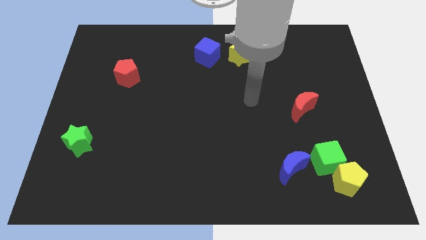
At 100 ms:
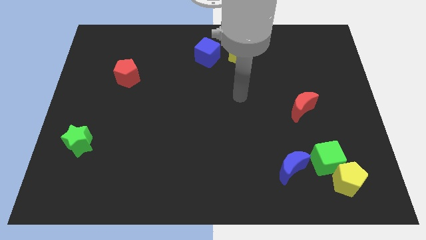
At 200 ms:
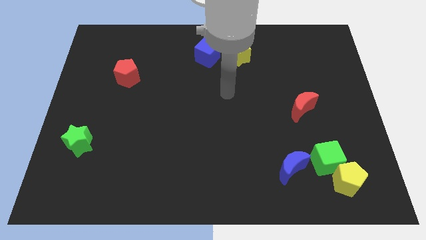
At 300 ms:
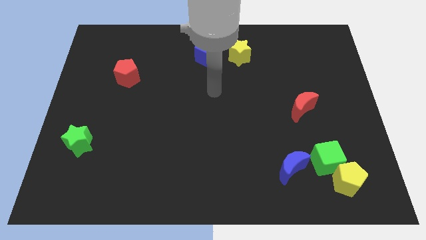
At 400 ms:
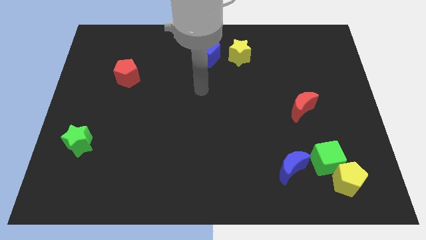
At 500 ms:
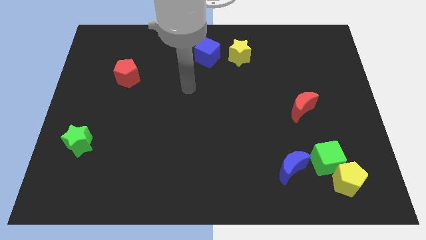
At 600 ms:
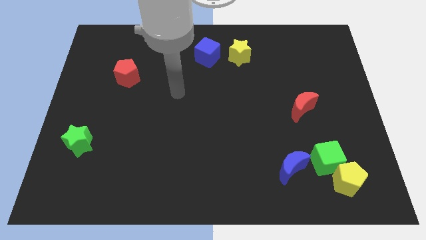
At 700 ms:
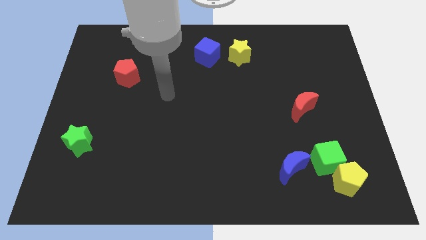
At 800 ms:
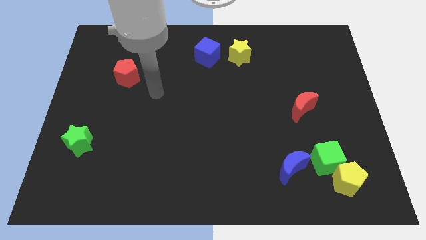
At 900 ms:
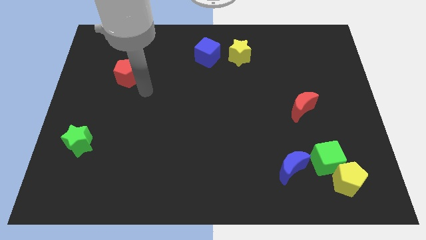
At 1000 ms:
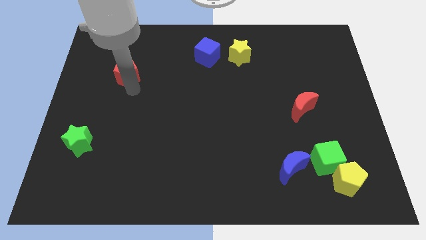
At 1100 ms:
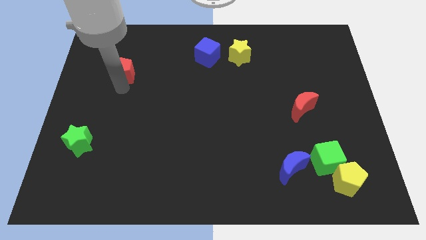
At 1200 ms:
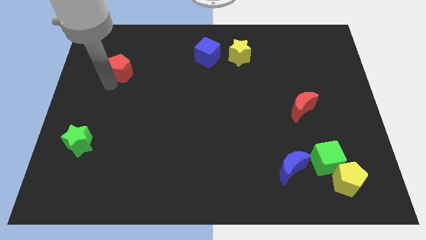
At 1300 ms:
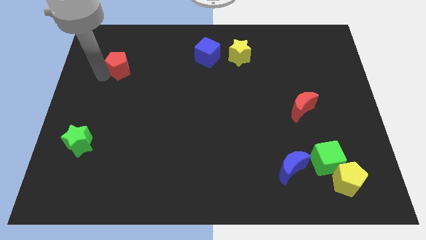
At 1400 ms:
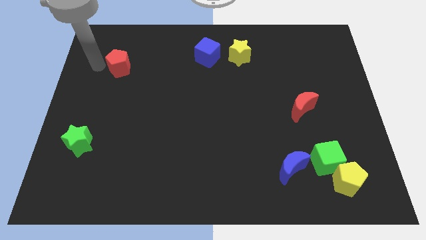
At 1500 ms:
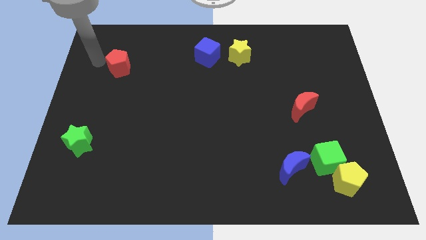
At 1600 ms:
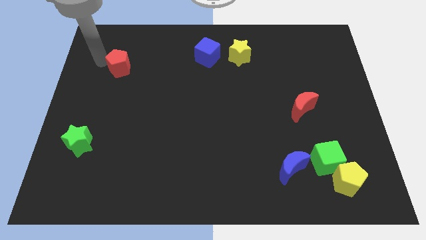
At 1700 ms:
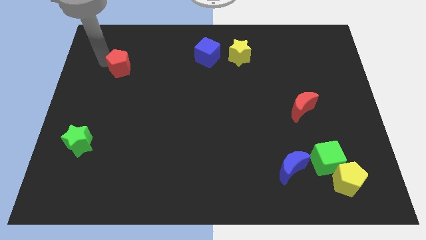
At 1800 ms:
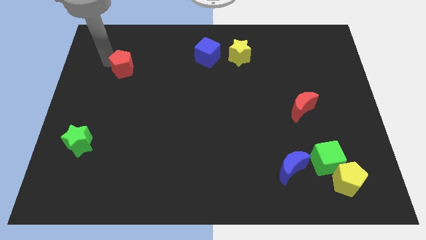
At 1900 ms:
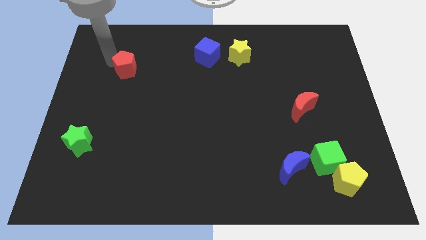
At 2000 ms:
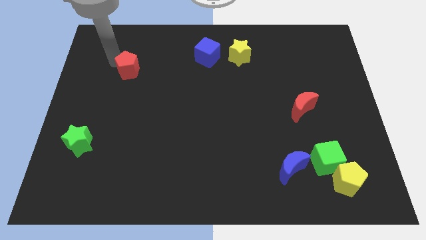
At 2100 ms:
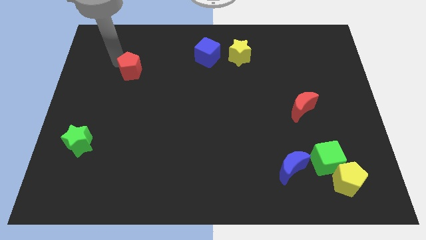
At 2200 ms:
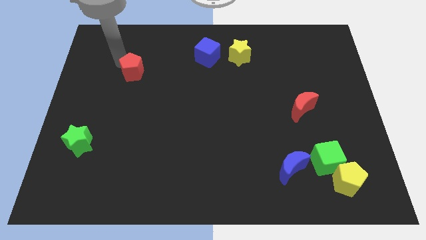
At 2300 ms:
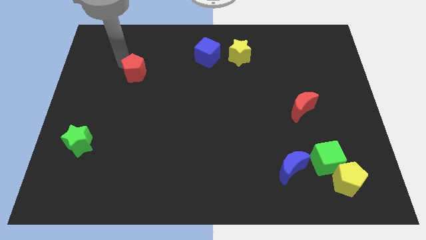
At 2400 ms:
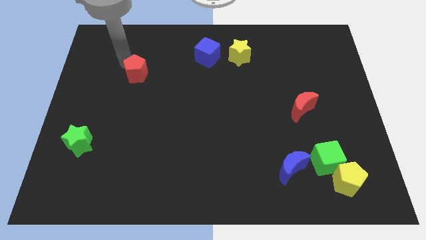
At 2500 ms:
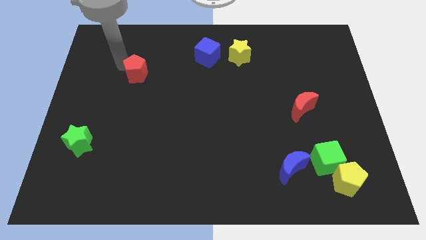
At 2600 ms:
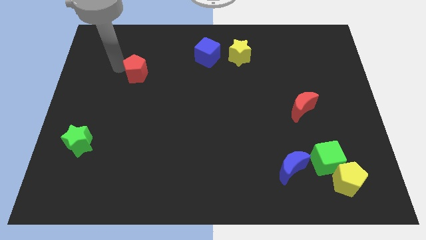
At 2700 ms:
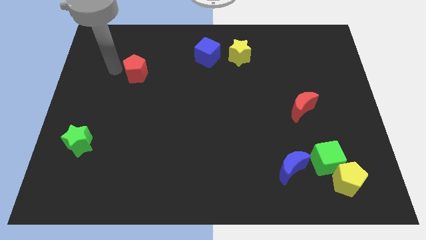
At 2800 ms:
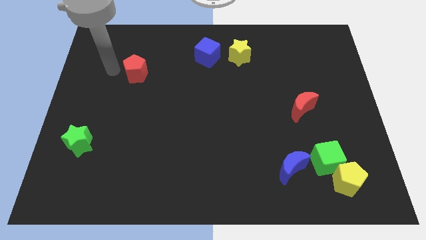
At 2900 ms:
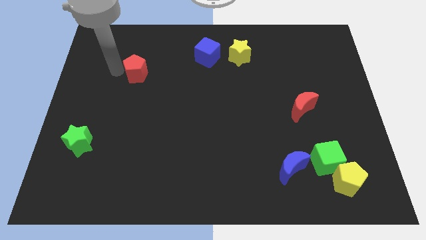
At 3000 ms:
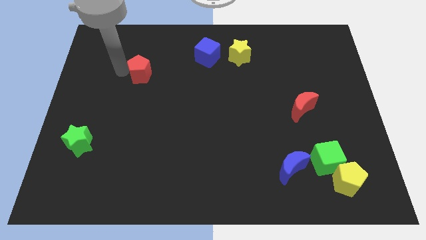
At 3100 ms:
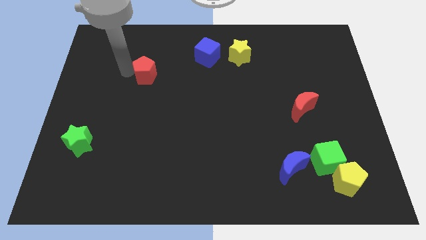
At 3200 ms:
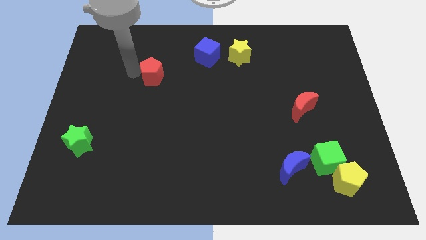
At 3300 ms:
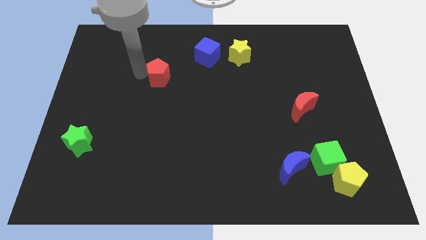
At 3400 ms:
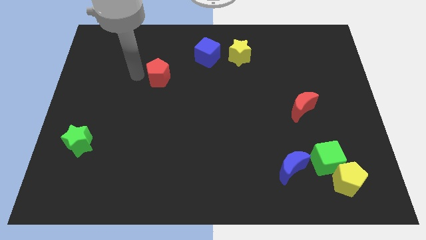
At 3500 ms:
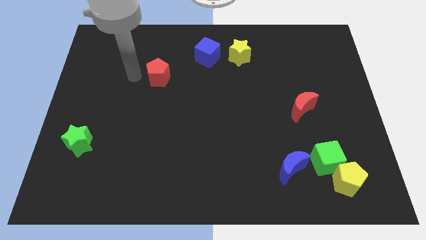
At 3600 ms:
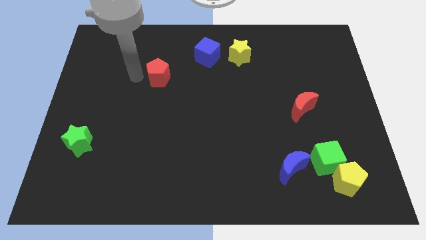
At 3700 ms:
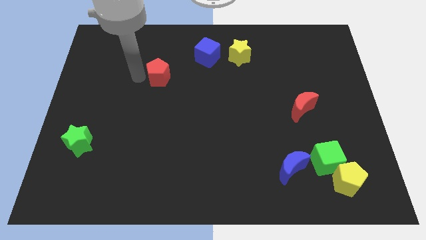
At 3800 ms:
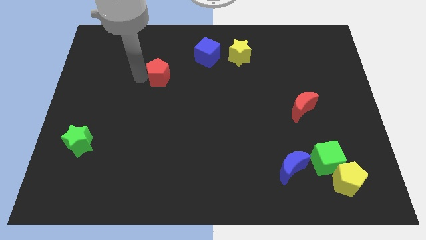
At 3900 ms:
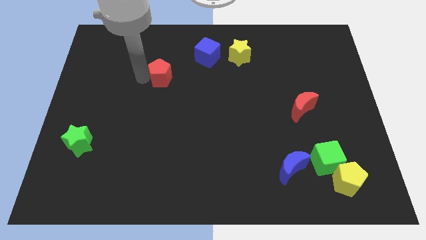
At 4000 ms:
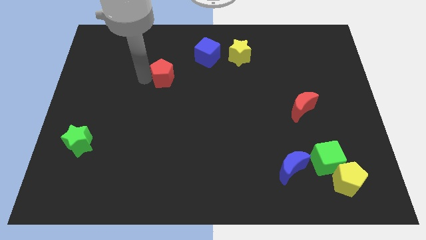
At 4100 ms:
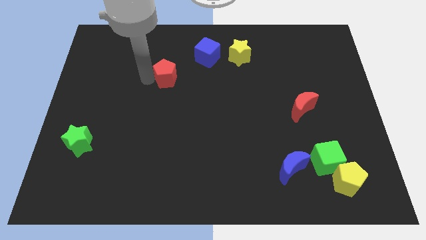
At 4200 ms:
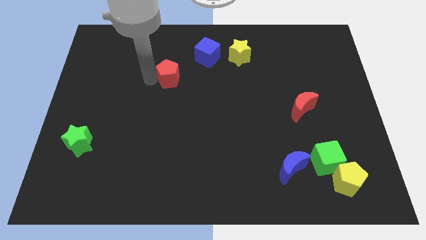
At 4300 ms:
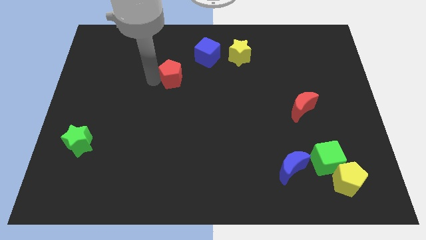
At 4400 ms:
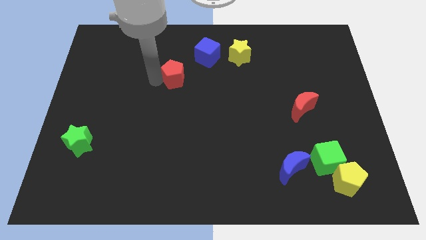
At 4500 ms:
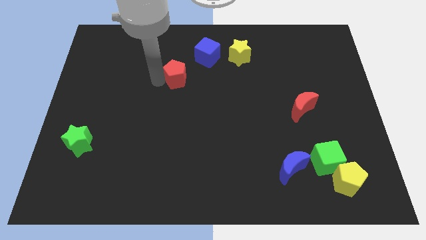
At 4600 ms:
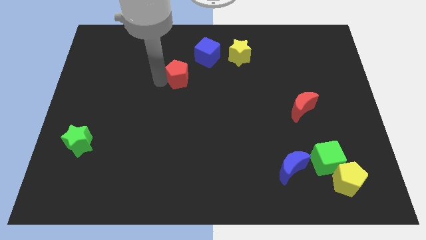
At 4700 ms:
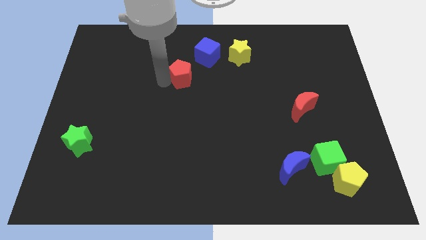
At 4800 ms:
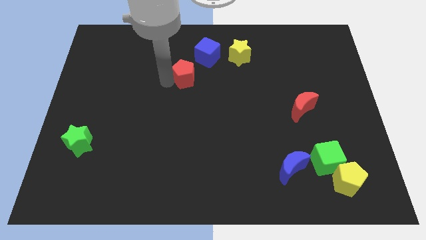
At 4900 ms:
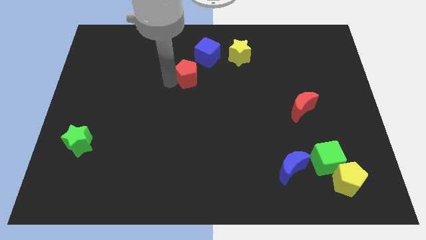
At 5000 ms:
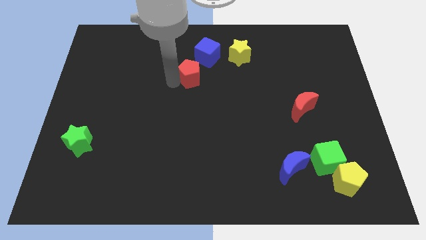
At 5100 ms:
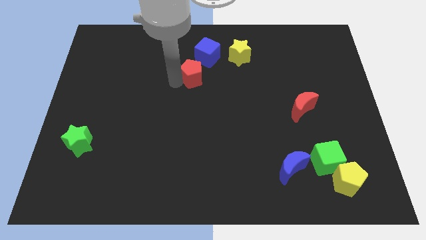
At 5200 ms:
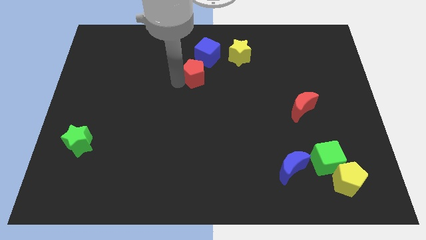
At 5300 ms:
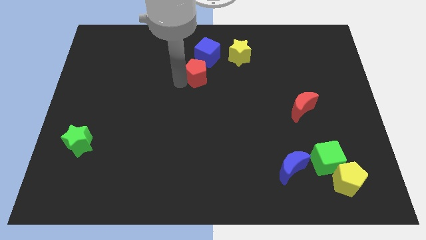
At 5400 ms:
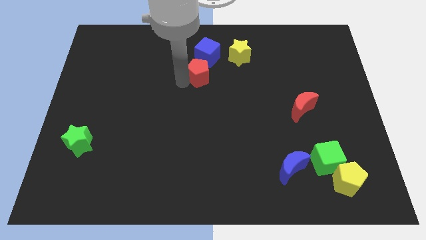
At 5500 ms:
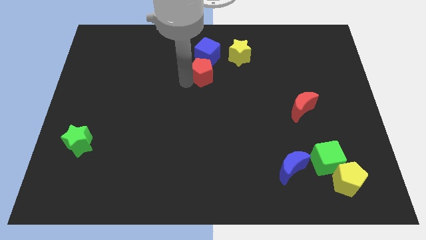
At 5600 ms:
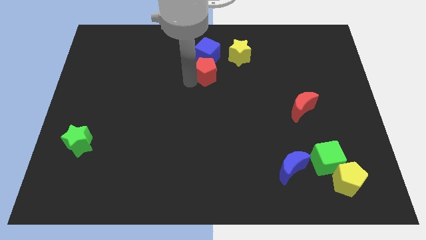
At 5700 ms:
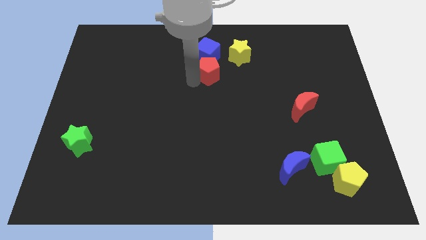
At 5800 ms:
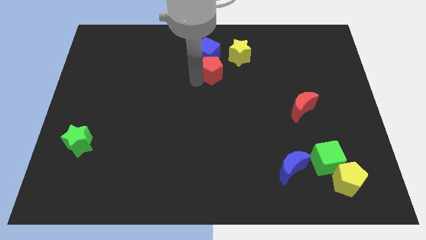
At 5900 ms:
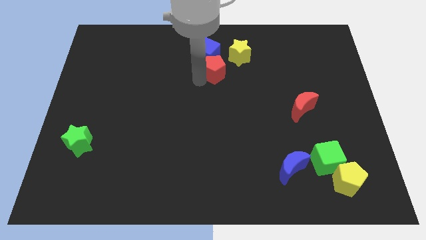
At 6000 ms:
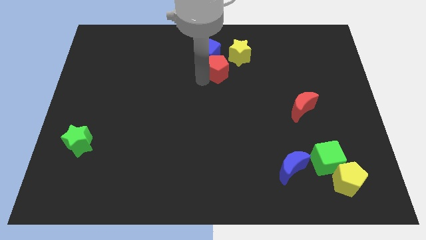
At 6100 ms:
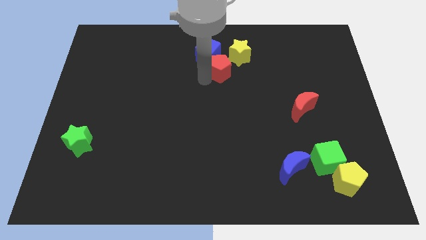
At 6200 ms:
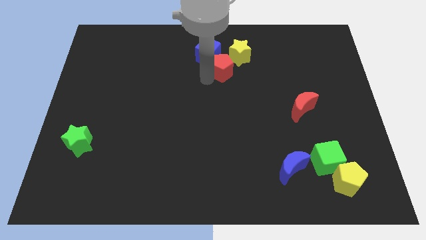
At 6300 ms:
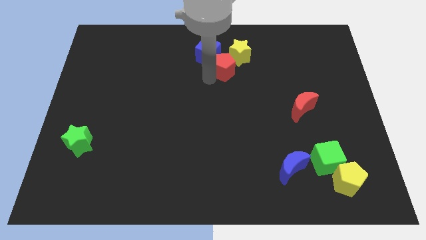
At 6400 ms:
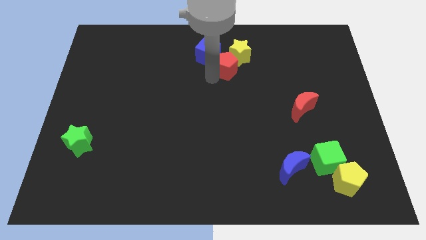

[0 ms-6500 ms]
put the red pentagon close to the yellow star
